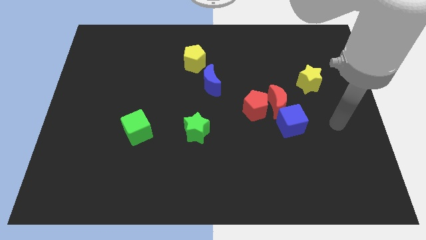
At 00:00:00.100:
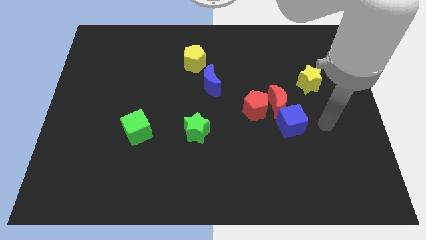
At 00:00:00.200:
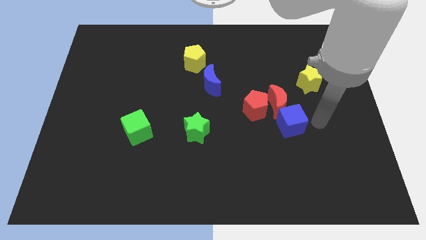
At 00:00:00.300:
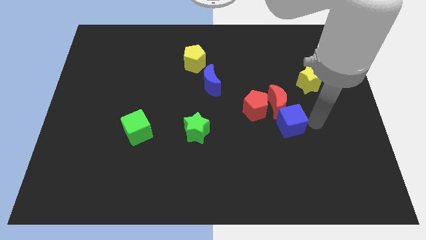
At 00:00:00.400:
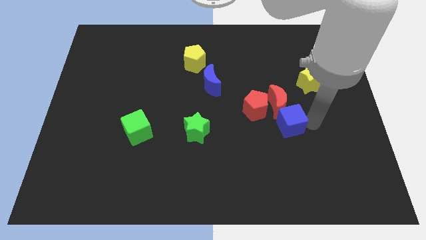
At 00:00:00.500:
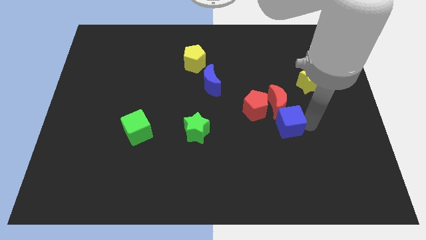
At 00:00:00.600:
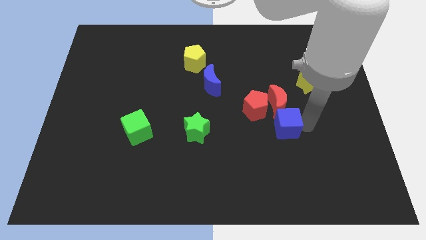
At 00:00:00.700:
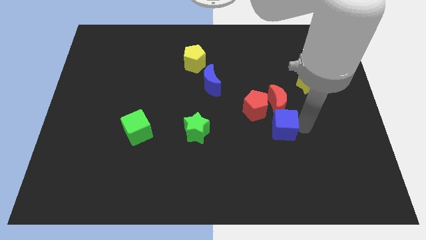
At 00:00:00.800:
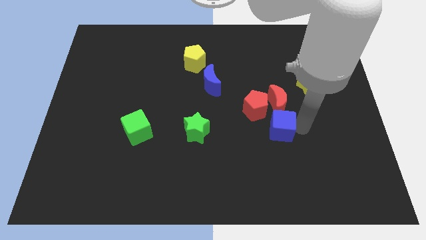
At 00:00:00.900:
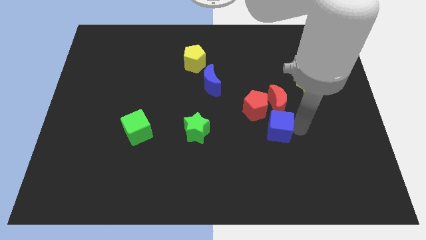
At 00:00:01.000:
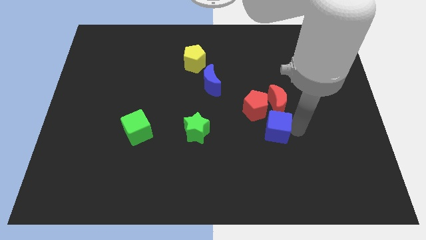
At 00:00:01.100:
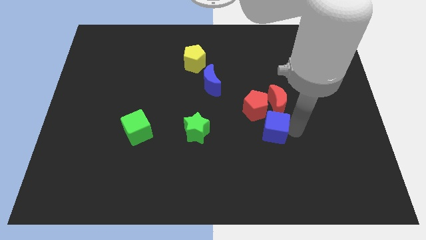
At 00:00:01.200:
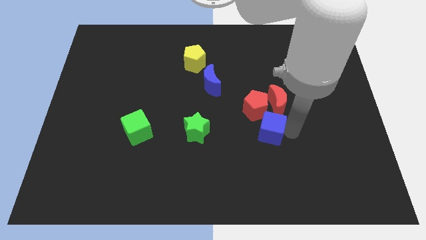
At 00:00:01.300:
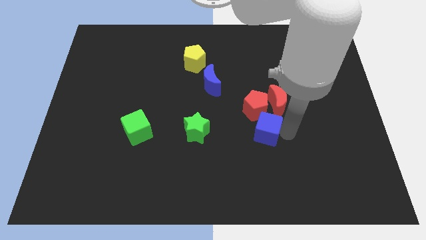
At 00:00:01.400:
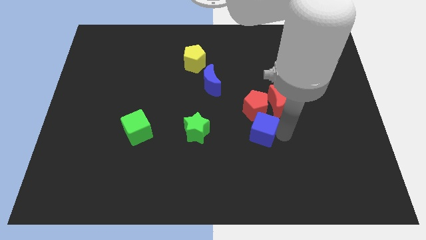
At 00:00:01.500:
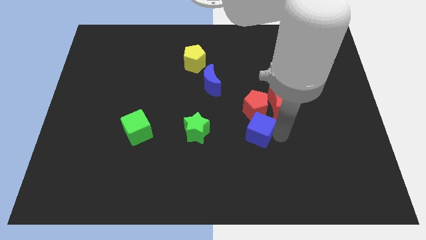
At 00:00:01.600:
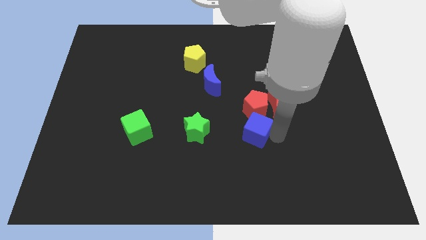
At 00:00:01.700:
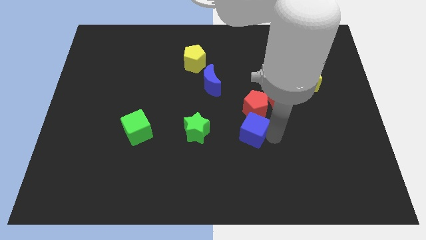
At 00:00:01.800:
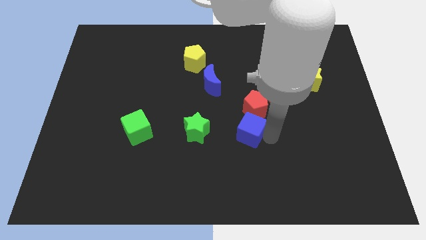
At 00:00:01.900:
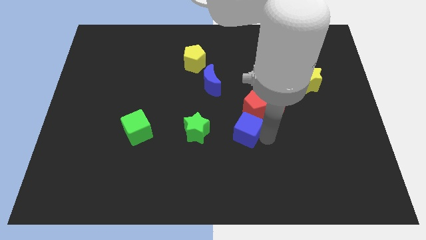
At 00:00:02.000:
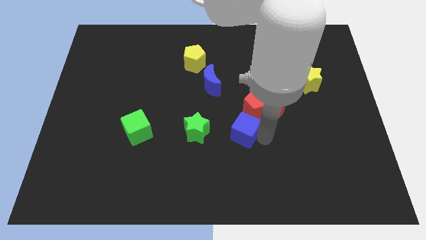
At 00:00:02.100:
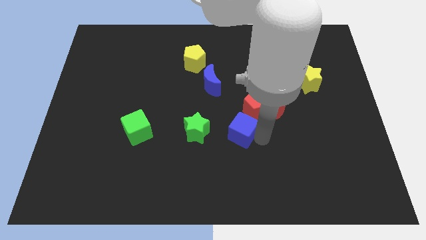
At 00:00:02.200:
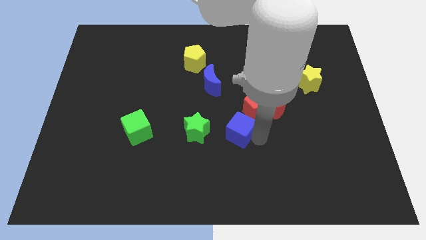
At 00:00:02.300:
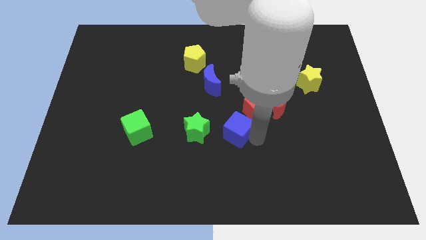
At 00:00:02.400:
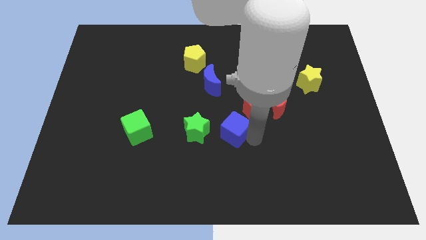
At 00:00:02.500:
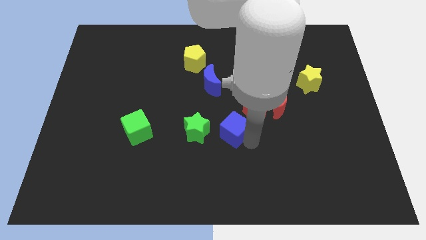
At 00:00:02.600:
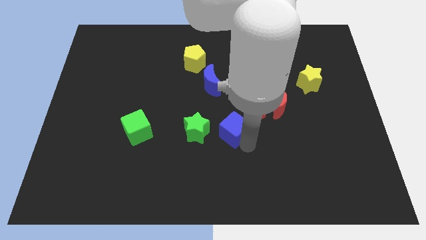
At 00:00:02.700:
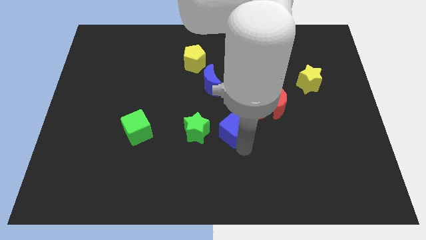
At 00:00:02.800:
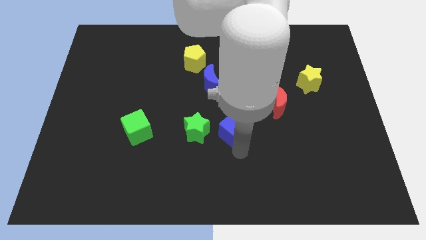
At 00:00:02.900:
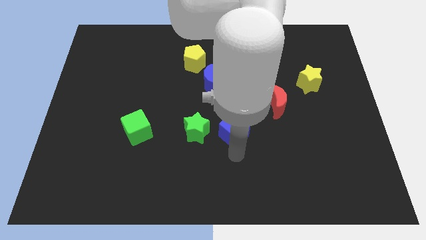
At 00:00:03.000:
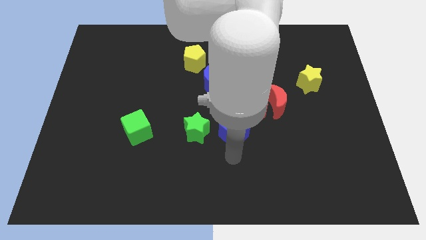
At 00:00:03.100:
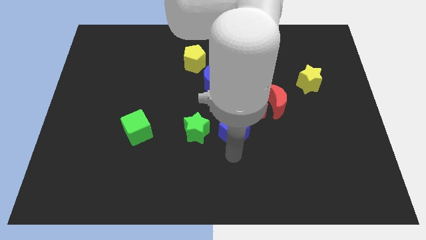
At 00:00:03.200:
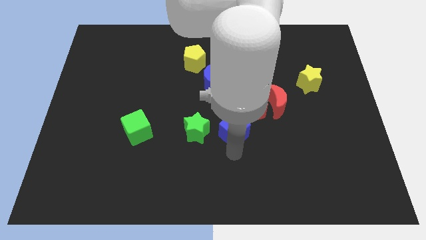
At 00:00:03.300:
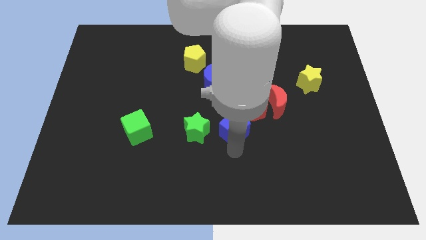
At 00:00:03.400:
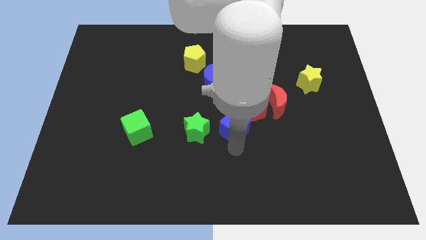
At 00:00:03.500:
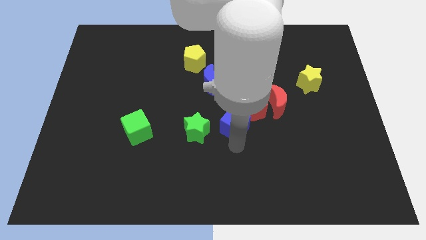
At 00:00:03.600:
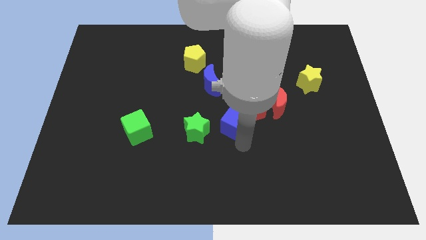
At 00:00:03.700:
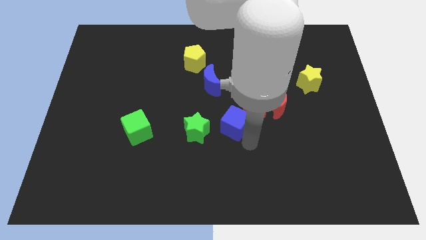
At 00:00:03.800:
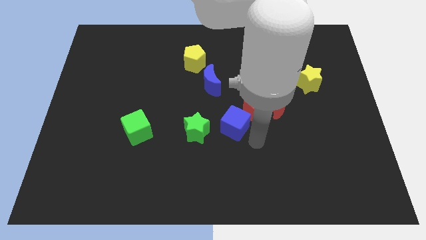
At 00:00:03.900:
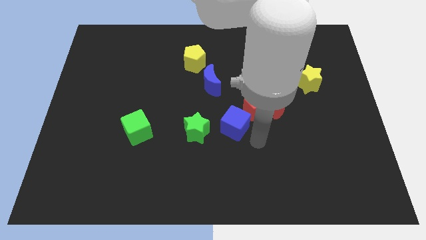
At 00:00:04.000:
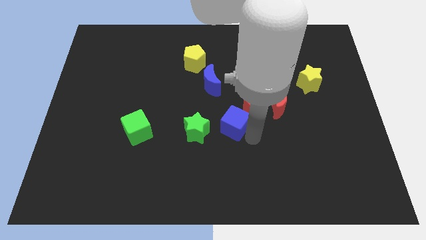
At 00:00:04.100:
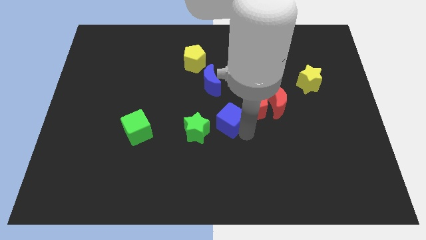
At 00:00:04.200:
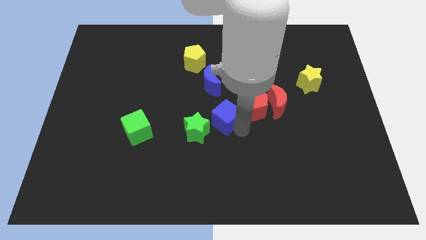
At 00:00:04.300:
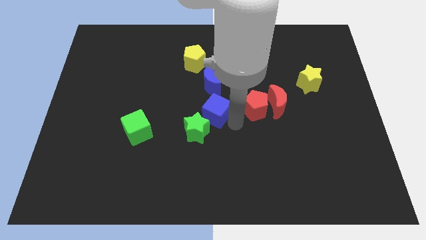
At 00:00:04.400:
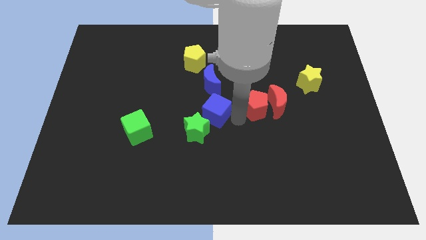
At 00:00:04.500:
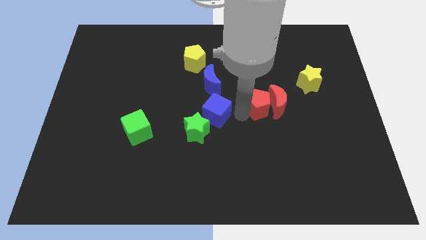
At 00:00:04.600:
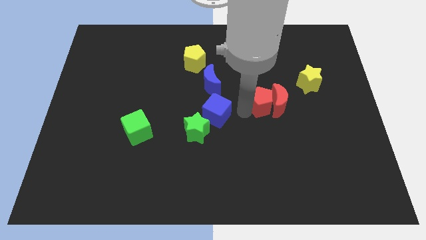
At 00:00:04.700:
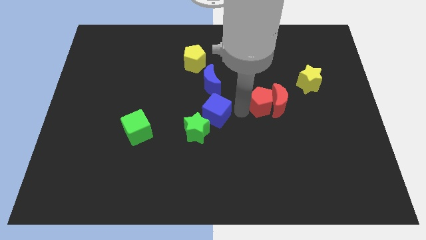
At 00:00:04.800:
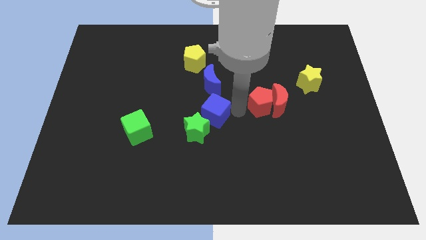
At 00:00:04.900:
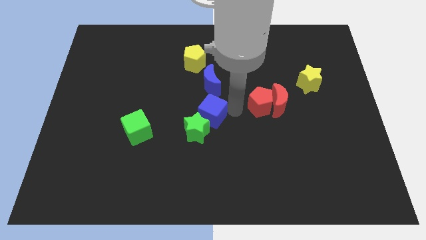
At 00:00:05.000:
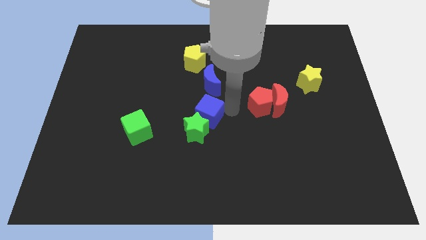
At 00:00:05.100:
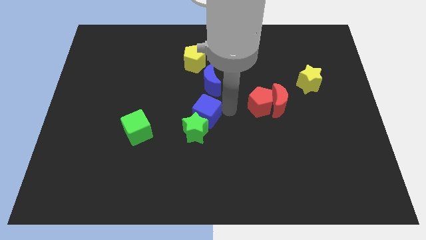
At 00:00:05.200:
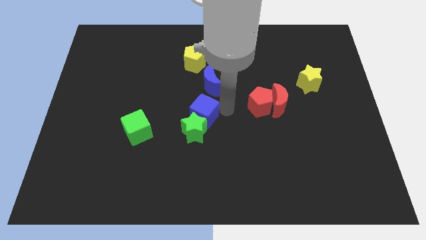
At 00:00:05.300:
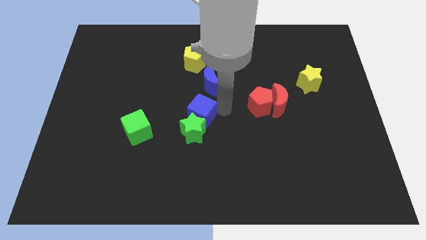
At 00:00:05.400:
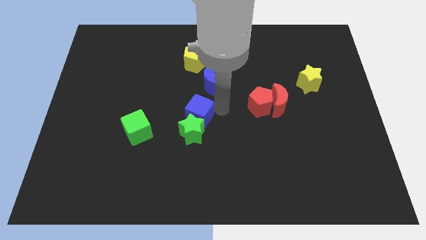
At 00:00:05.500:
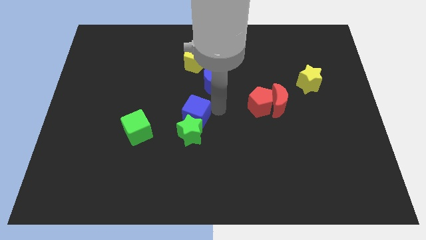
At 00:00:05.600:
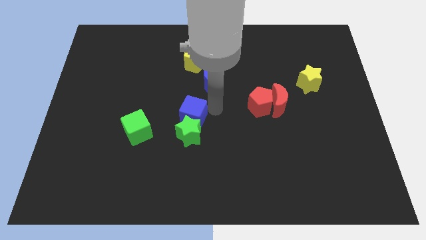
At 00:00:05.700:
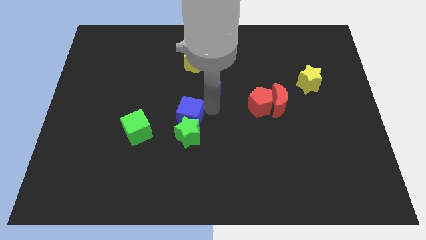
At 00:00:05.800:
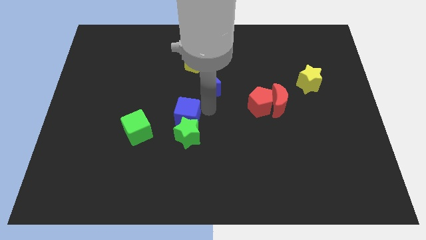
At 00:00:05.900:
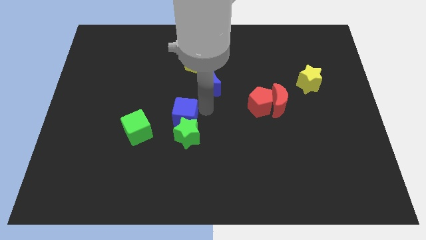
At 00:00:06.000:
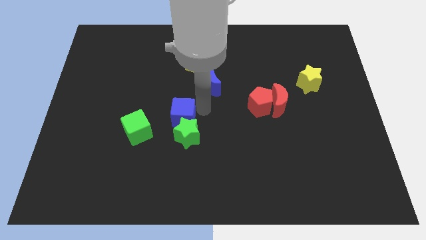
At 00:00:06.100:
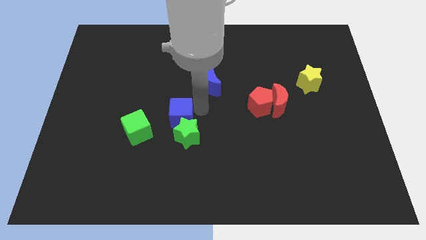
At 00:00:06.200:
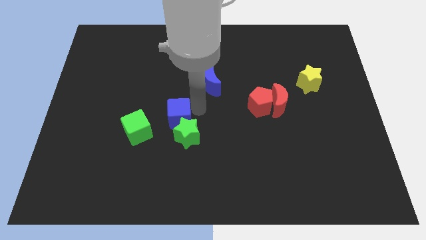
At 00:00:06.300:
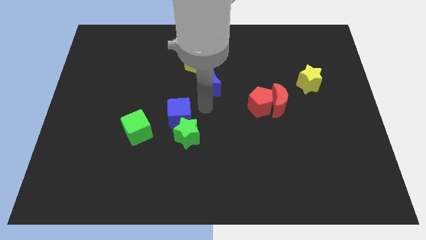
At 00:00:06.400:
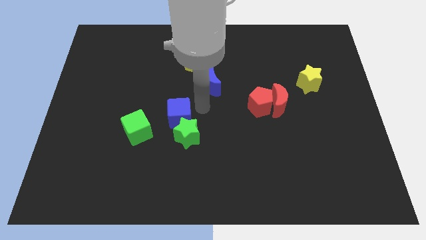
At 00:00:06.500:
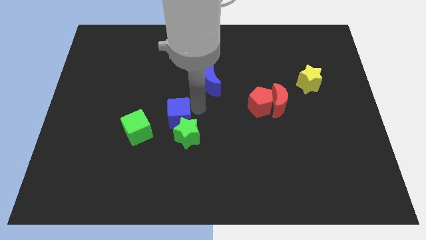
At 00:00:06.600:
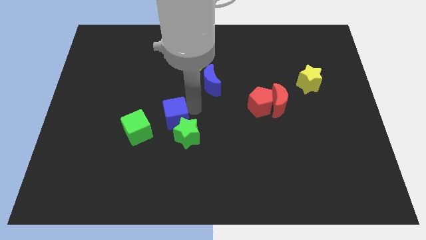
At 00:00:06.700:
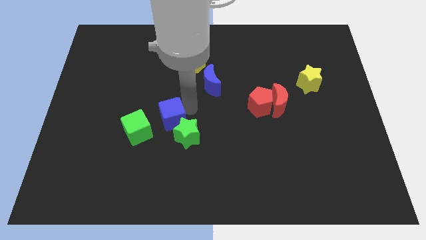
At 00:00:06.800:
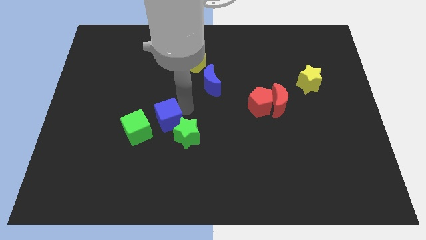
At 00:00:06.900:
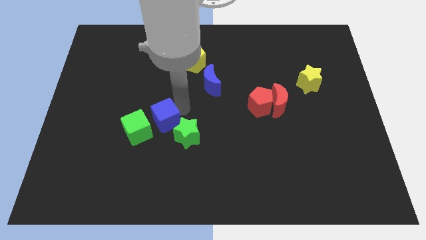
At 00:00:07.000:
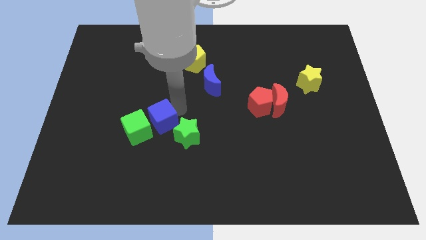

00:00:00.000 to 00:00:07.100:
move the blue cube close to the green cube
